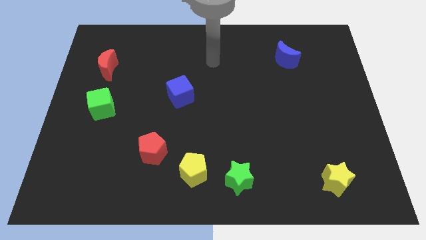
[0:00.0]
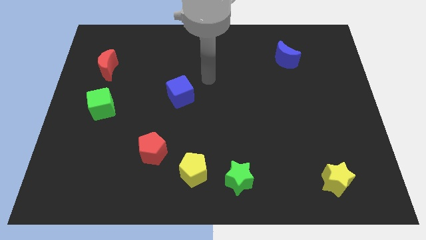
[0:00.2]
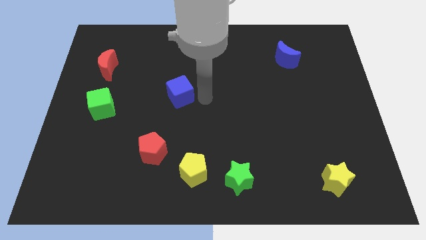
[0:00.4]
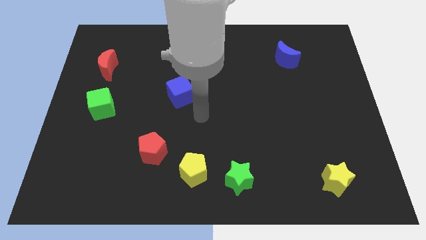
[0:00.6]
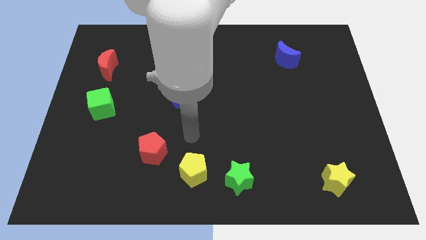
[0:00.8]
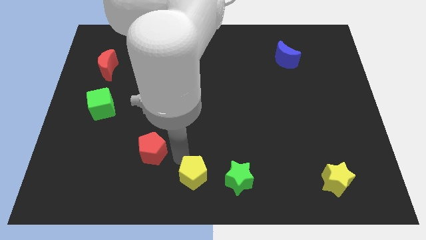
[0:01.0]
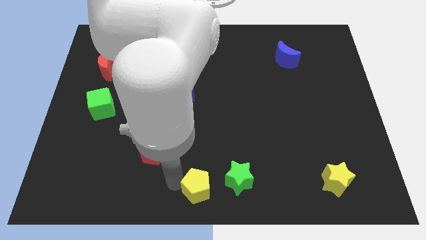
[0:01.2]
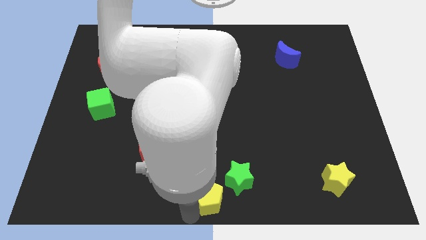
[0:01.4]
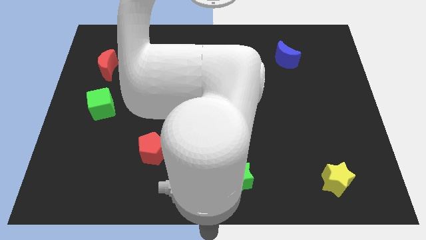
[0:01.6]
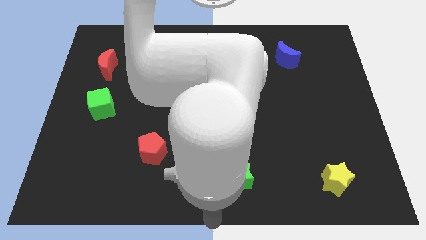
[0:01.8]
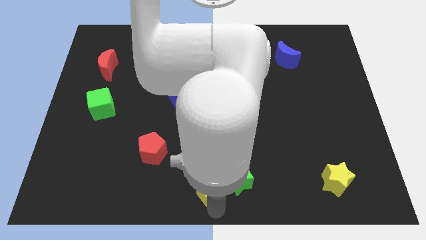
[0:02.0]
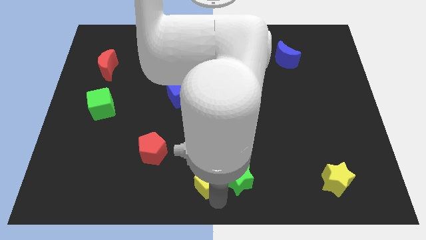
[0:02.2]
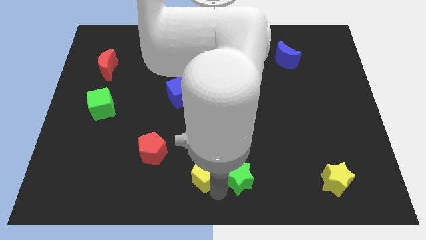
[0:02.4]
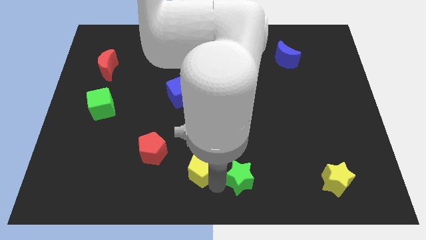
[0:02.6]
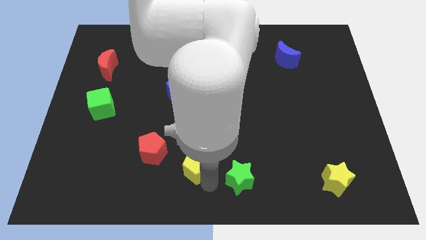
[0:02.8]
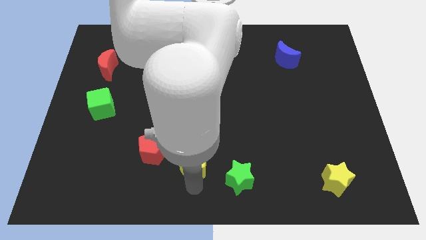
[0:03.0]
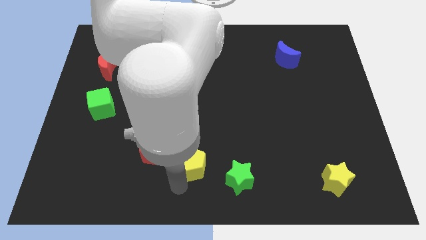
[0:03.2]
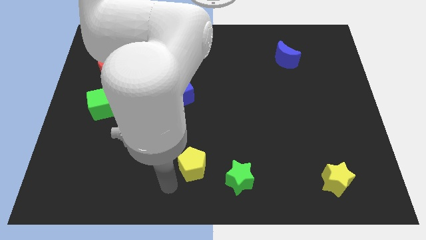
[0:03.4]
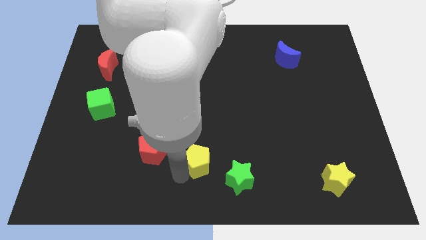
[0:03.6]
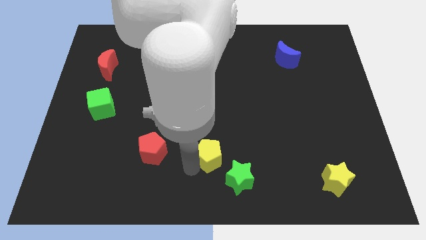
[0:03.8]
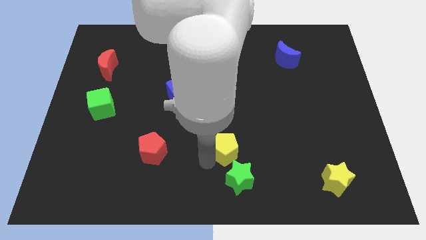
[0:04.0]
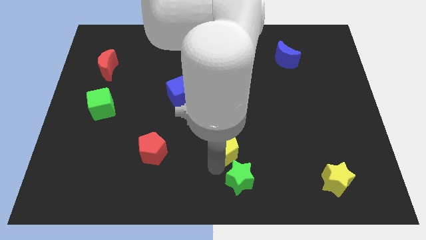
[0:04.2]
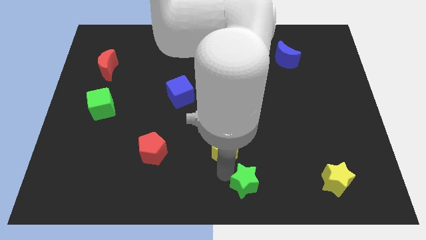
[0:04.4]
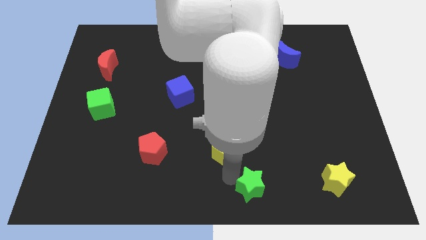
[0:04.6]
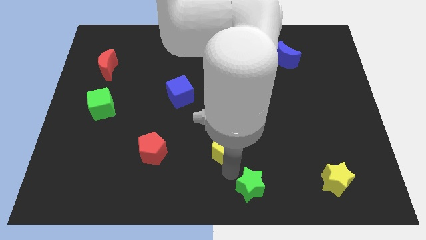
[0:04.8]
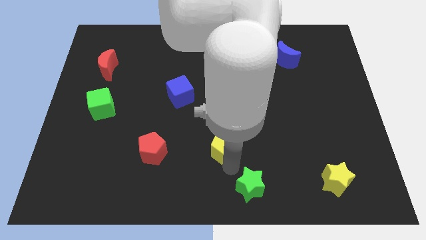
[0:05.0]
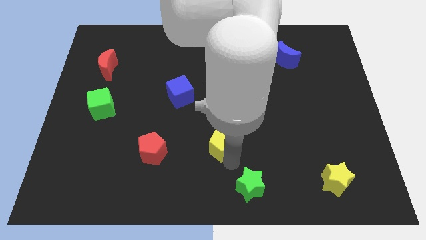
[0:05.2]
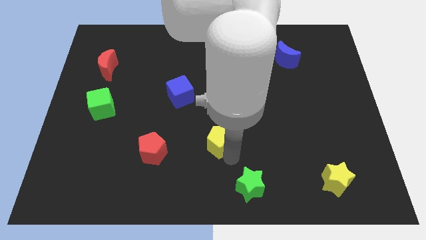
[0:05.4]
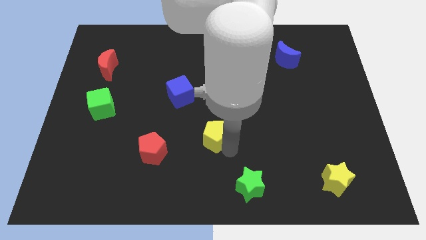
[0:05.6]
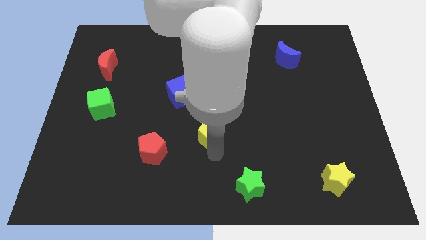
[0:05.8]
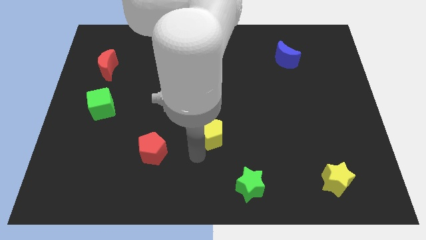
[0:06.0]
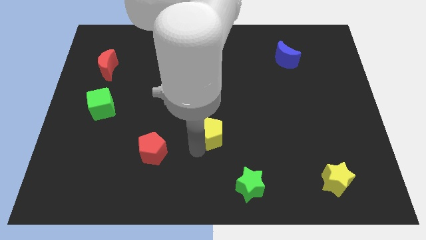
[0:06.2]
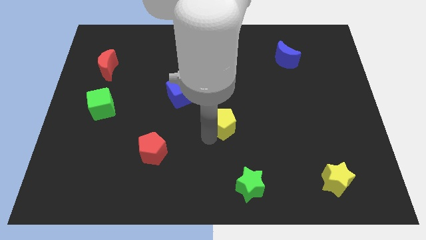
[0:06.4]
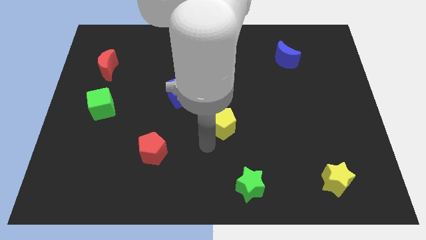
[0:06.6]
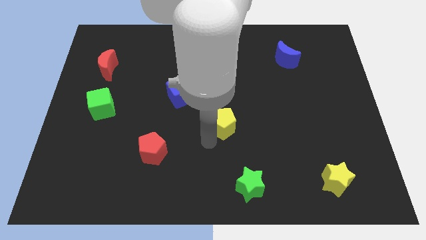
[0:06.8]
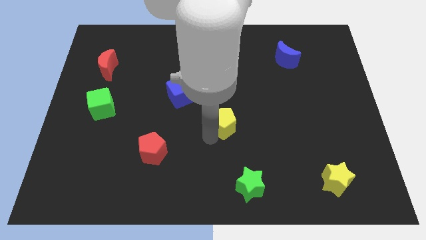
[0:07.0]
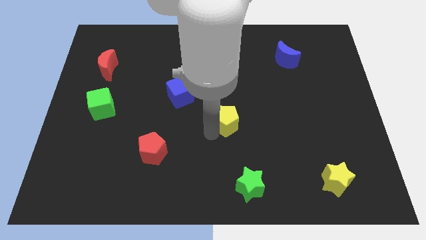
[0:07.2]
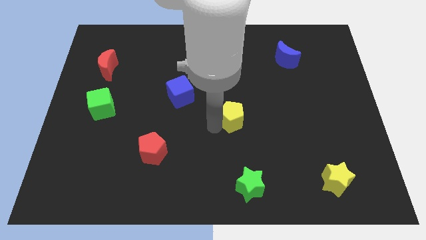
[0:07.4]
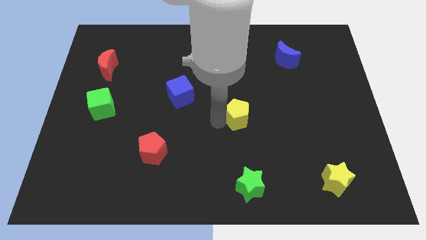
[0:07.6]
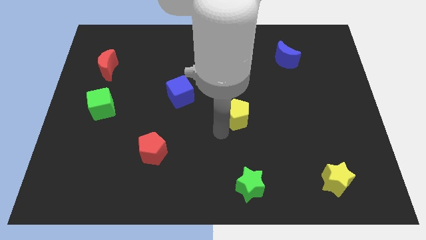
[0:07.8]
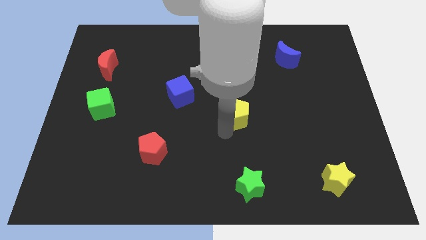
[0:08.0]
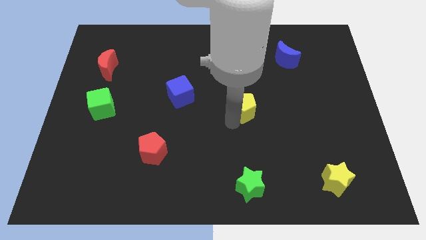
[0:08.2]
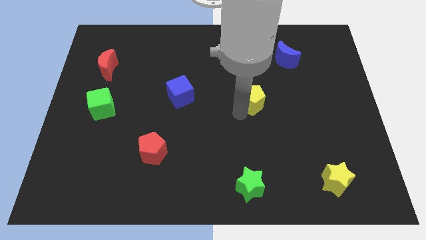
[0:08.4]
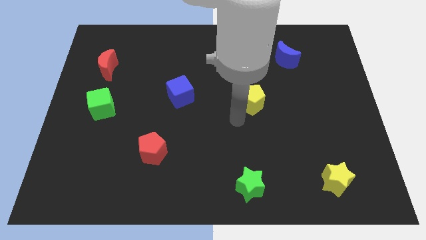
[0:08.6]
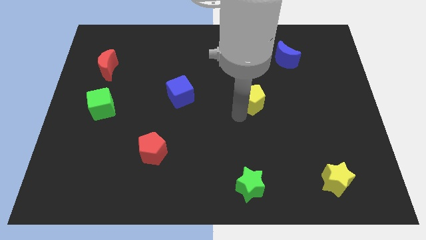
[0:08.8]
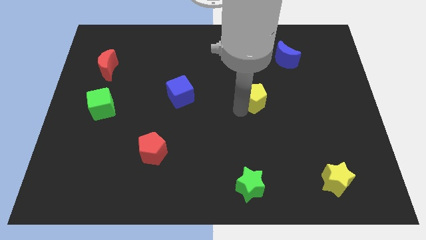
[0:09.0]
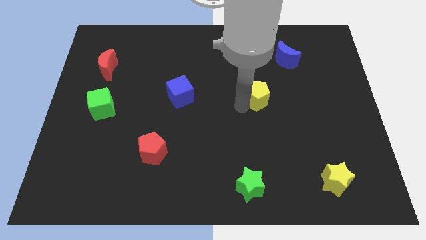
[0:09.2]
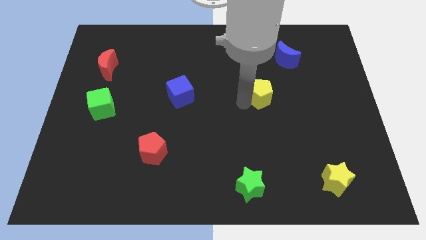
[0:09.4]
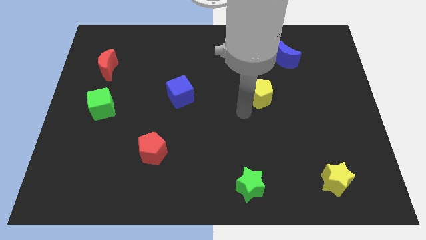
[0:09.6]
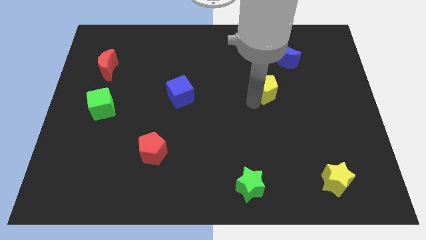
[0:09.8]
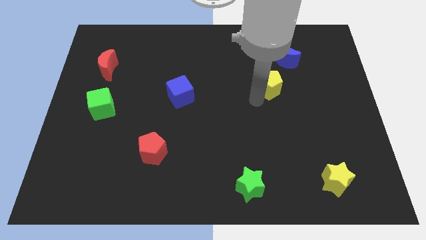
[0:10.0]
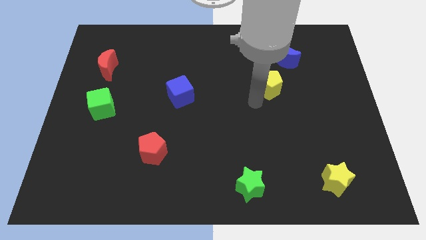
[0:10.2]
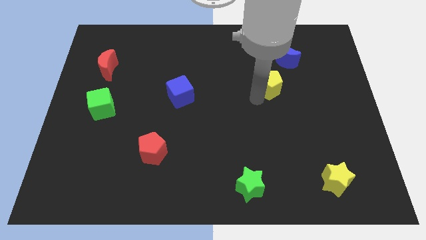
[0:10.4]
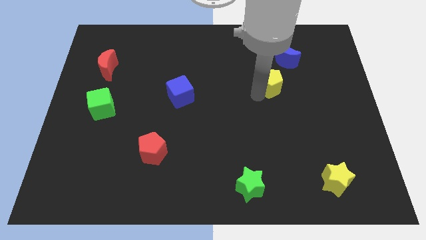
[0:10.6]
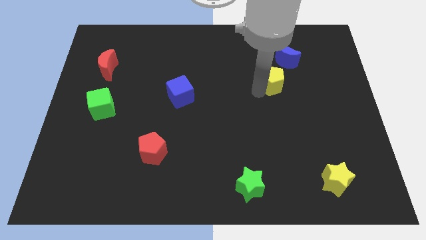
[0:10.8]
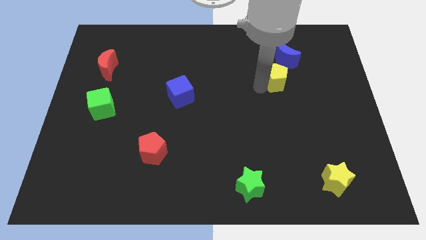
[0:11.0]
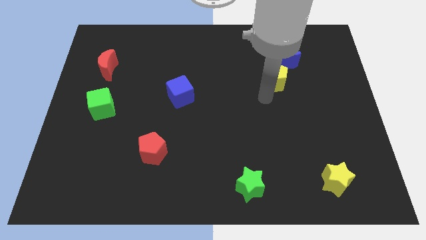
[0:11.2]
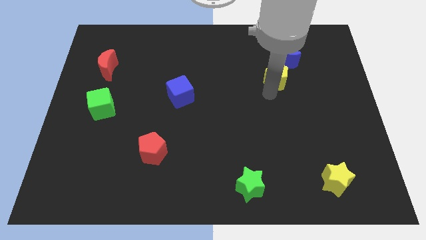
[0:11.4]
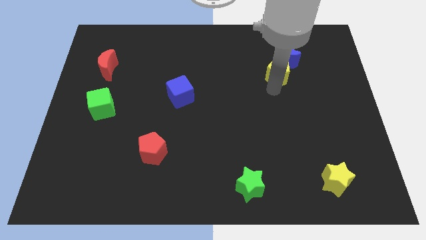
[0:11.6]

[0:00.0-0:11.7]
slide the yellow pentagon towards the blue moon

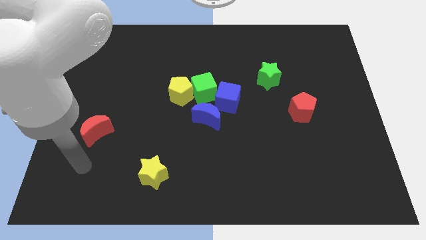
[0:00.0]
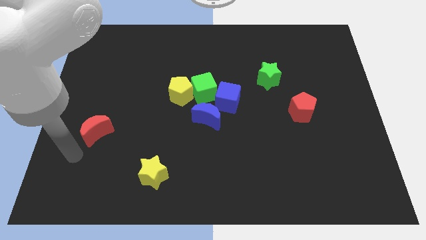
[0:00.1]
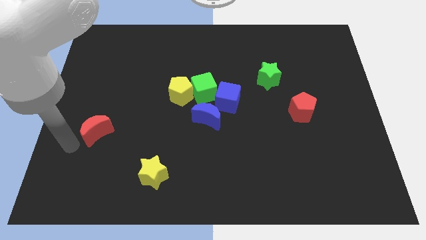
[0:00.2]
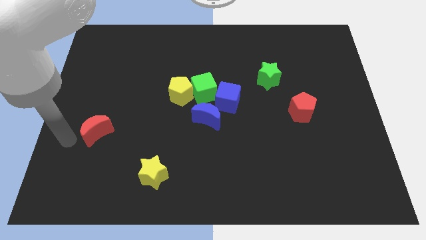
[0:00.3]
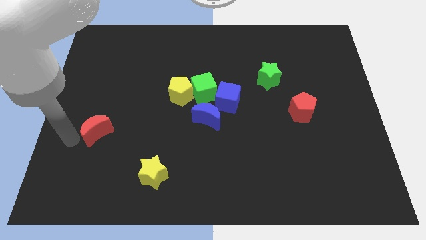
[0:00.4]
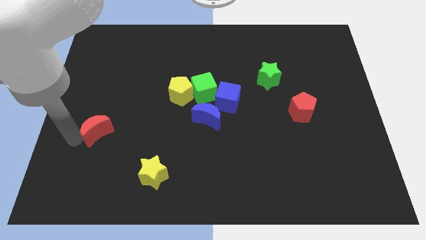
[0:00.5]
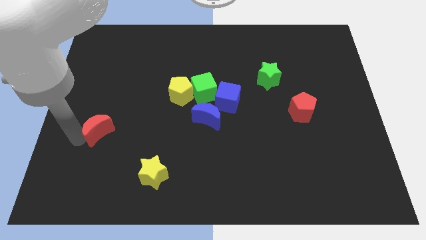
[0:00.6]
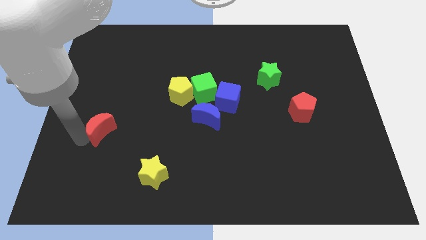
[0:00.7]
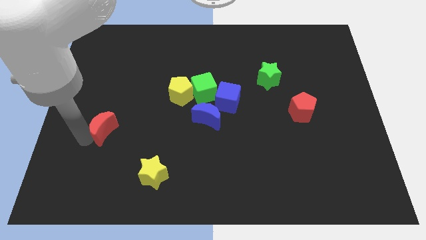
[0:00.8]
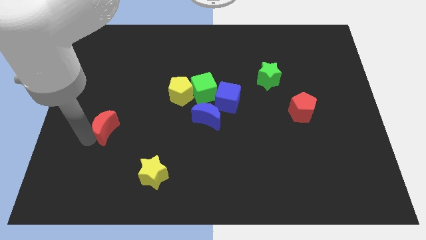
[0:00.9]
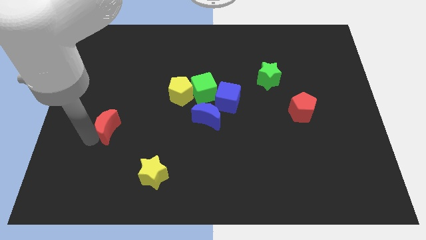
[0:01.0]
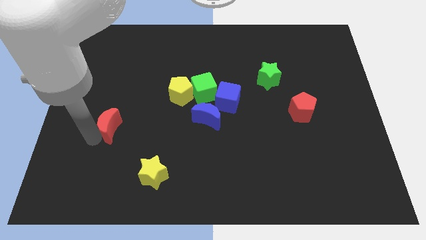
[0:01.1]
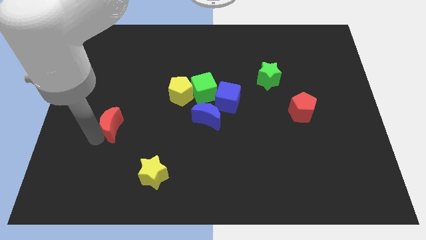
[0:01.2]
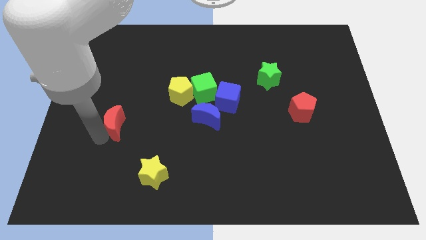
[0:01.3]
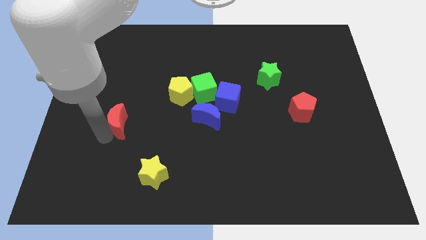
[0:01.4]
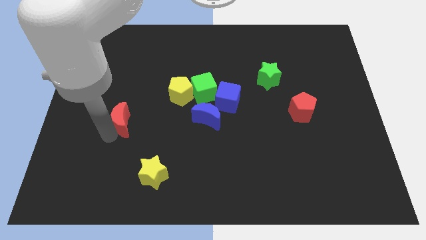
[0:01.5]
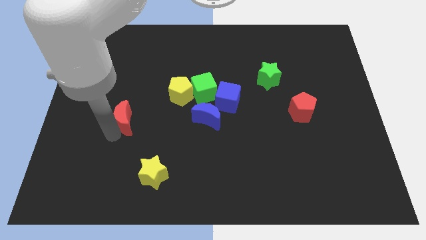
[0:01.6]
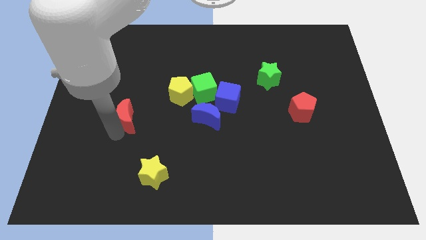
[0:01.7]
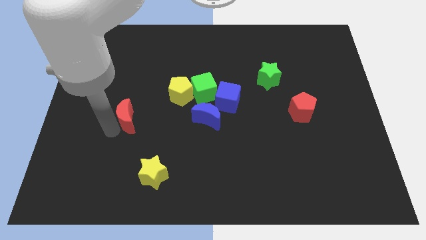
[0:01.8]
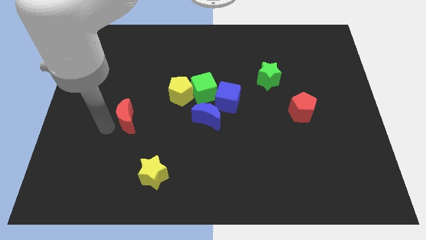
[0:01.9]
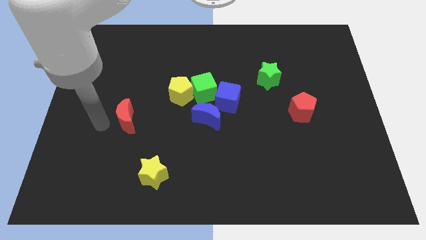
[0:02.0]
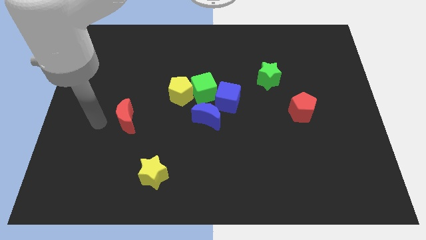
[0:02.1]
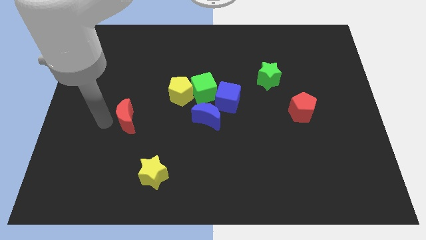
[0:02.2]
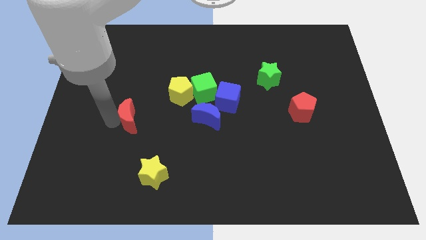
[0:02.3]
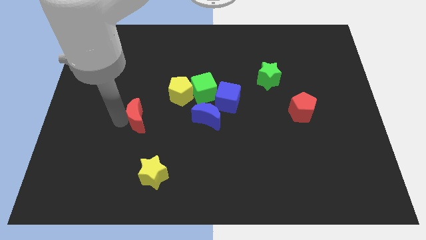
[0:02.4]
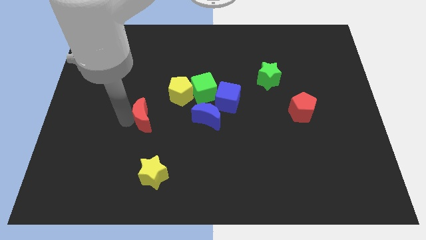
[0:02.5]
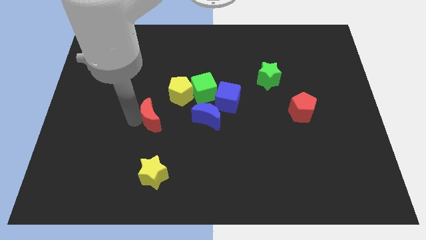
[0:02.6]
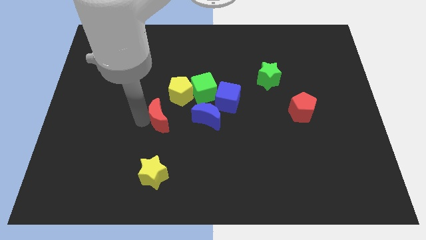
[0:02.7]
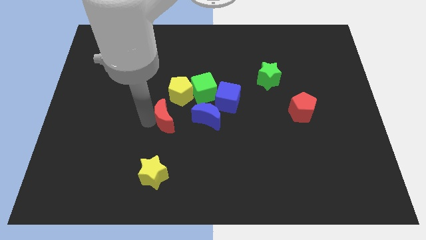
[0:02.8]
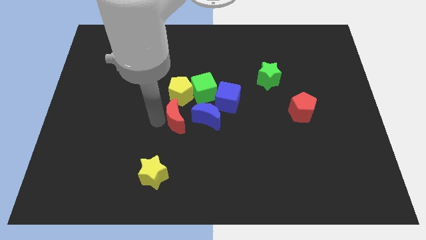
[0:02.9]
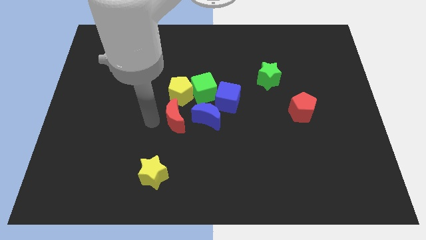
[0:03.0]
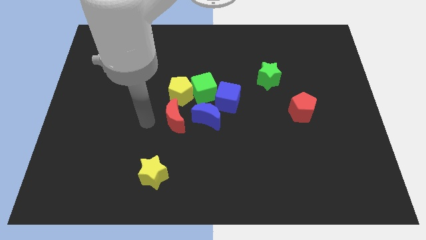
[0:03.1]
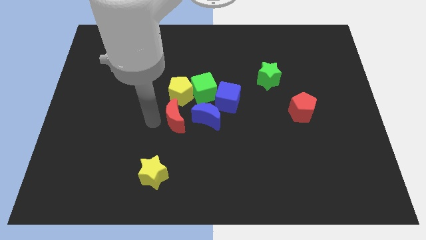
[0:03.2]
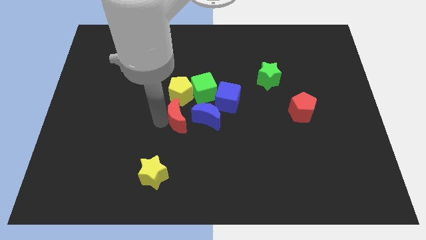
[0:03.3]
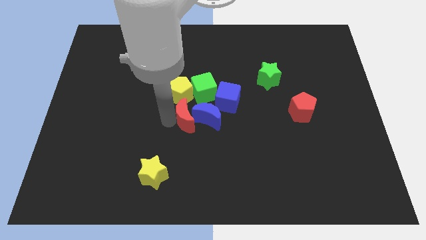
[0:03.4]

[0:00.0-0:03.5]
push the red moon close to the blue moon
